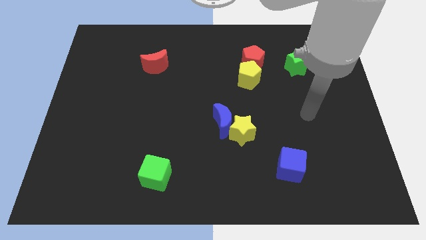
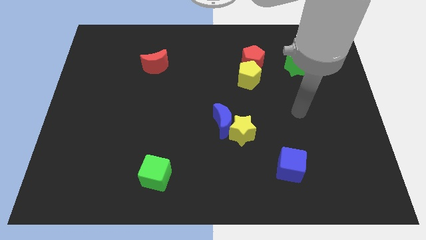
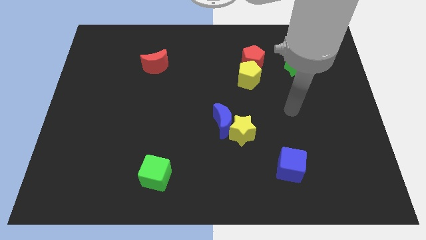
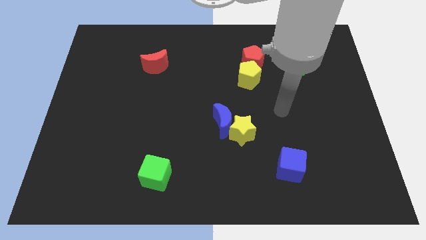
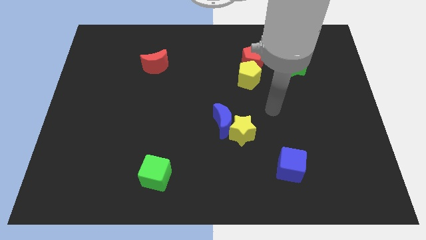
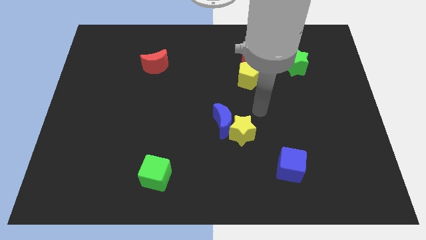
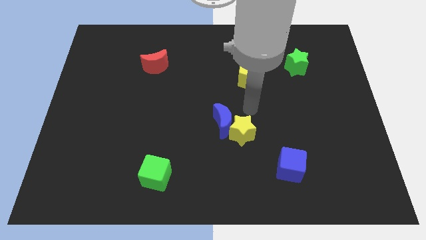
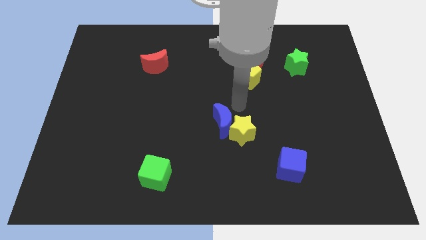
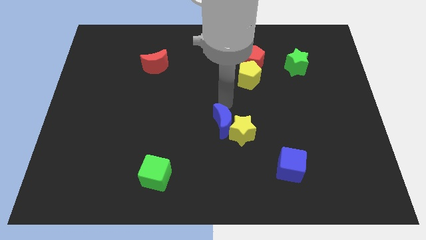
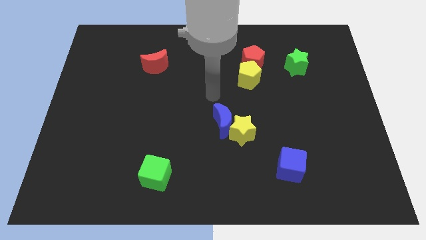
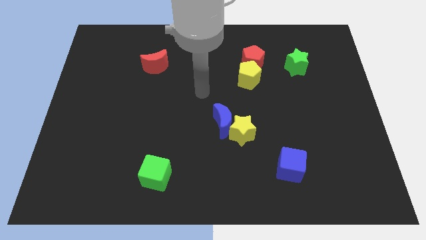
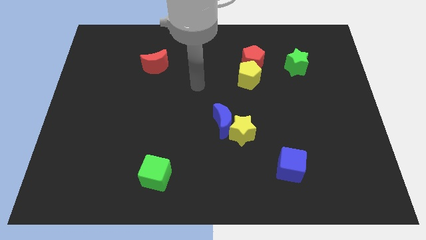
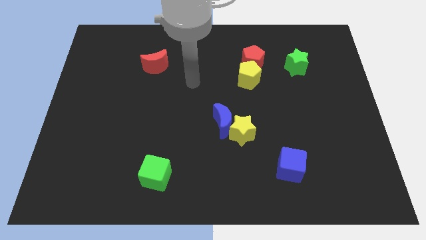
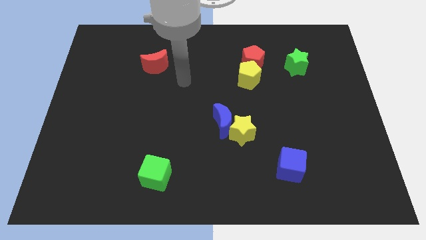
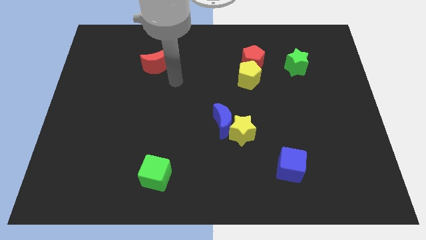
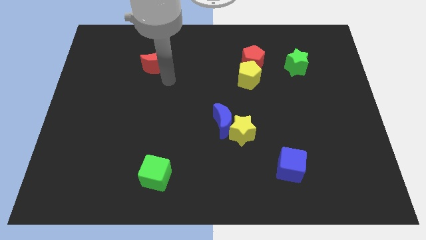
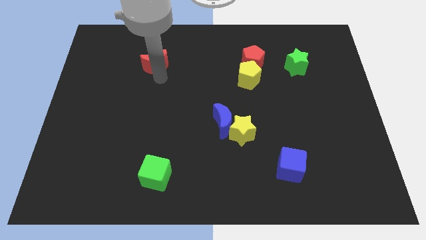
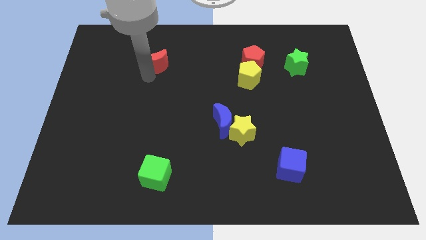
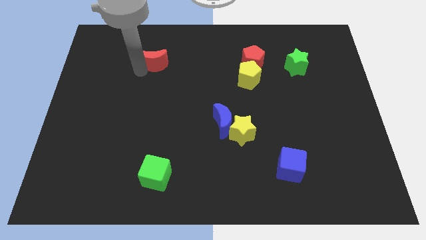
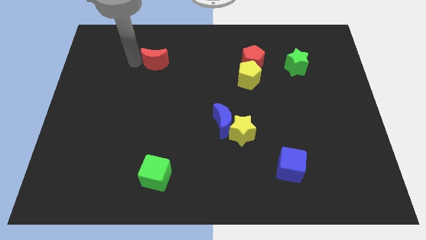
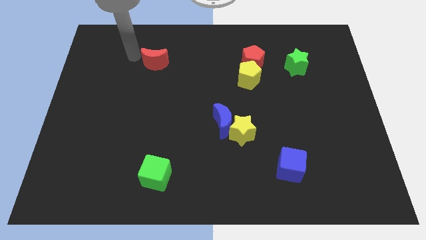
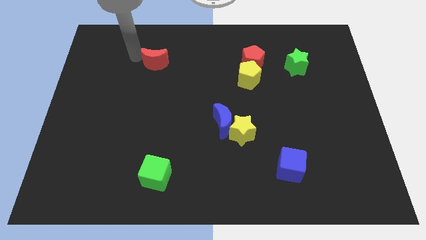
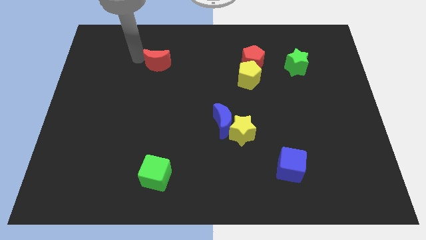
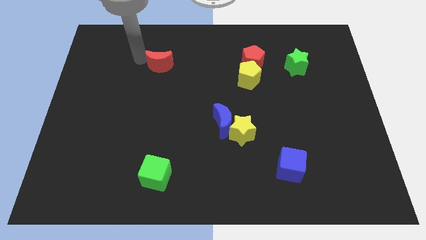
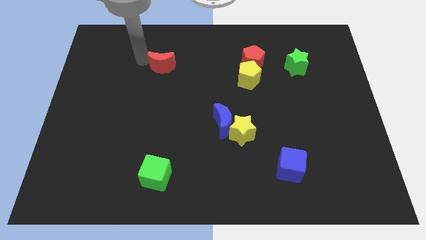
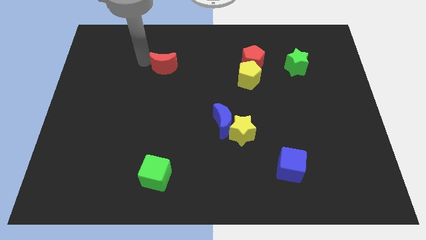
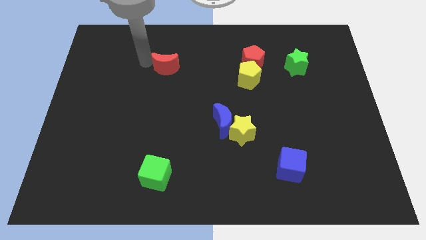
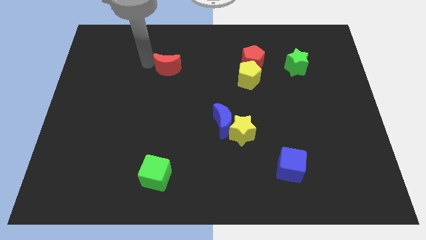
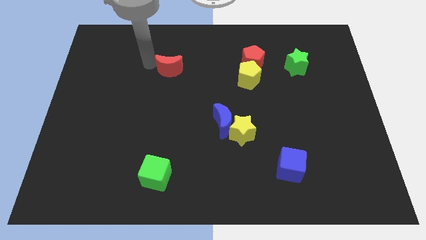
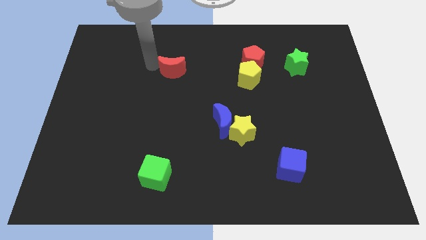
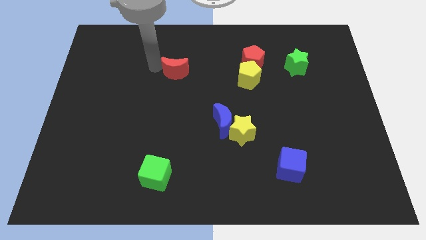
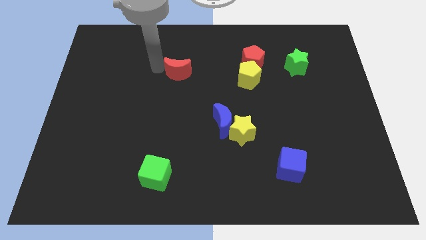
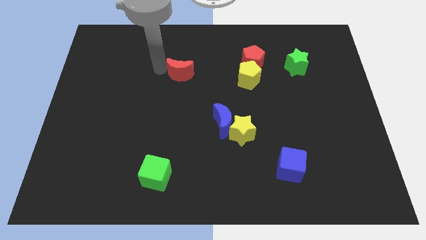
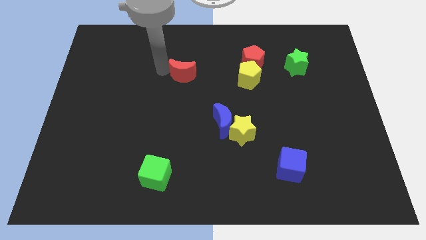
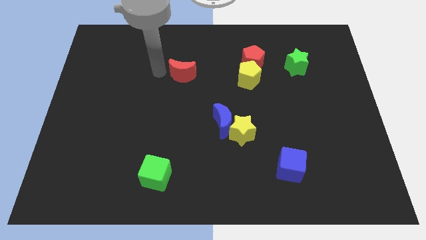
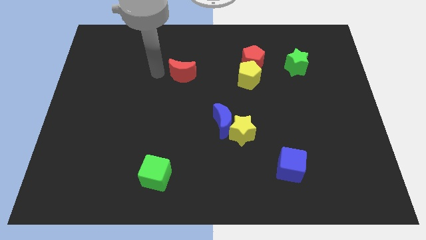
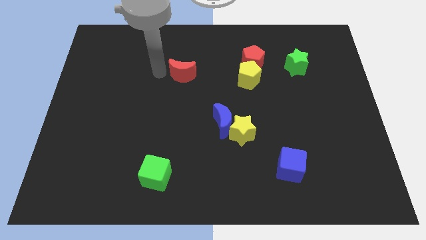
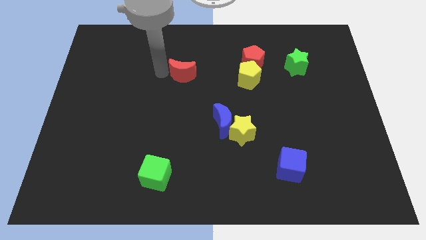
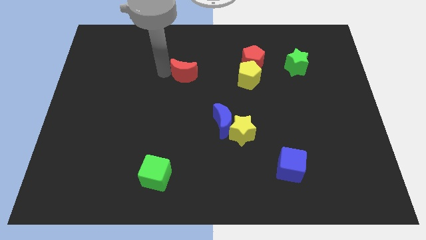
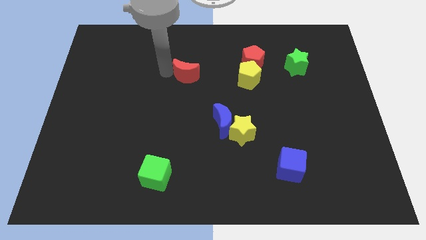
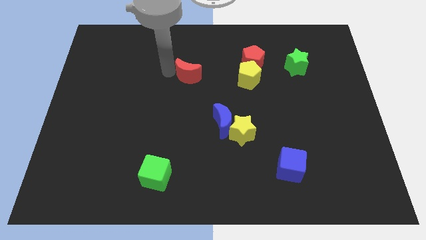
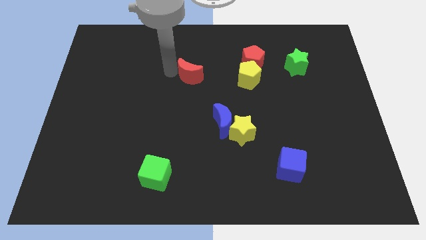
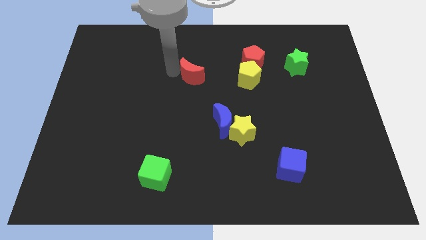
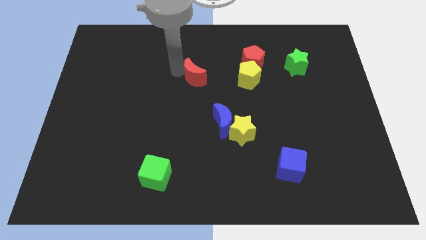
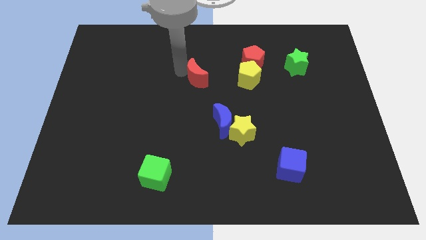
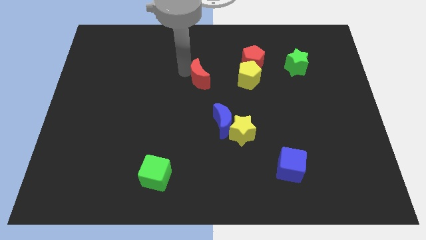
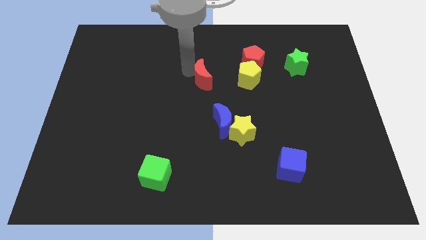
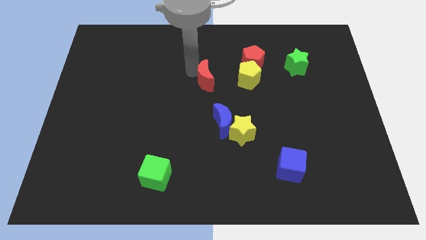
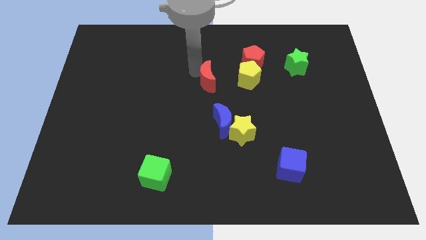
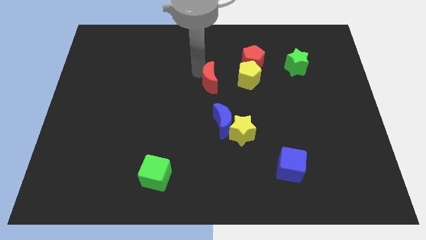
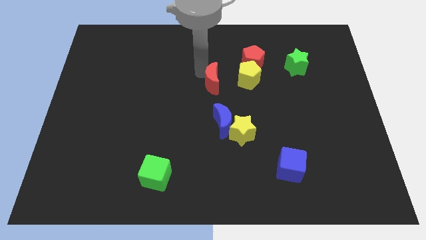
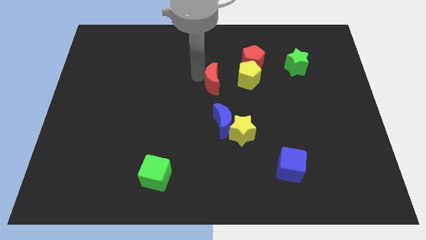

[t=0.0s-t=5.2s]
put the red moon diagonally down and to the left of the red pentagon

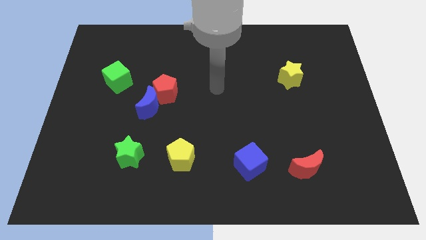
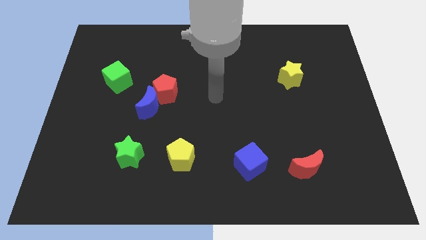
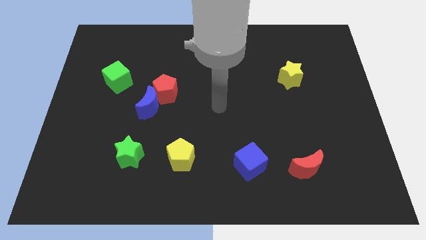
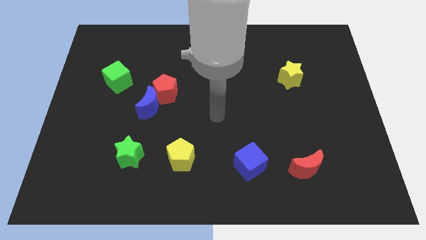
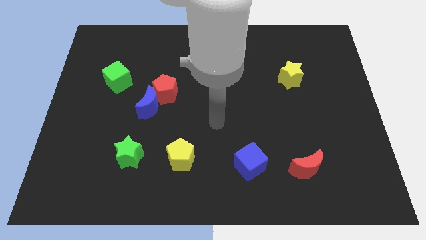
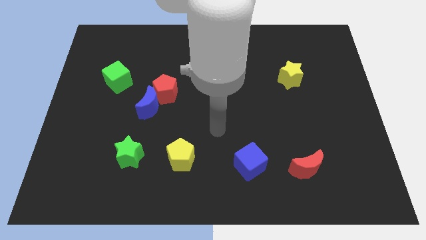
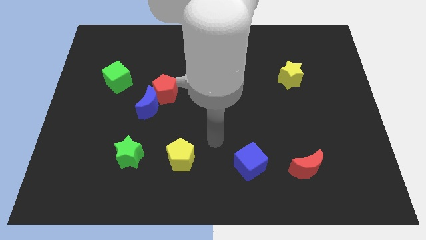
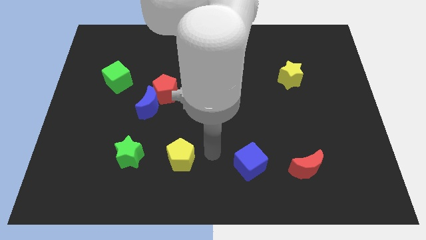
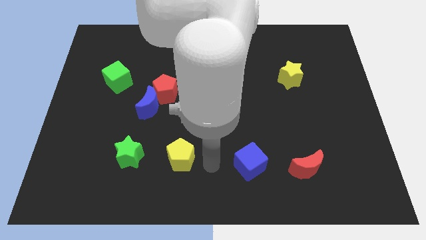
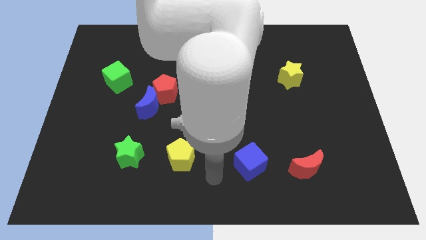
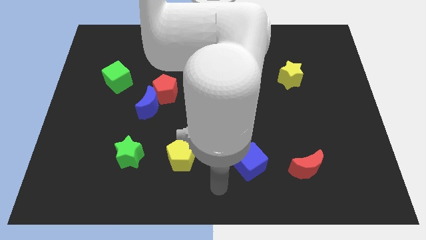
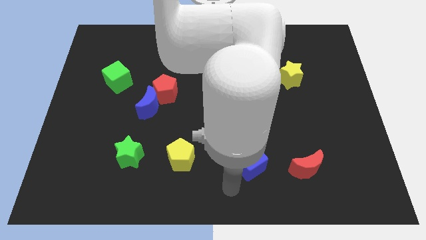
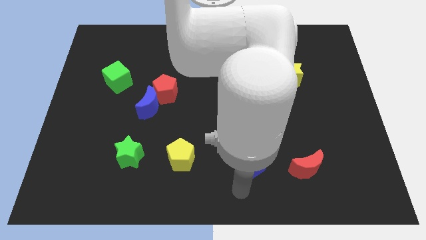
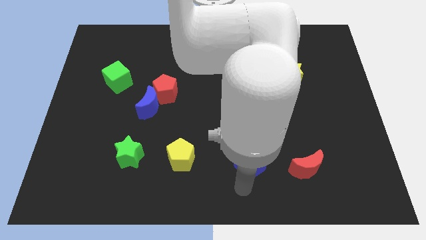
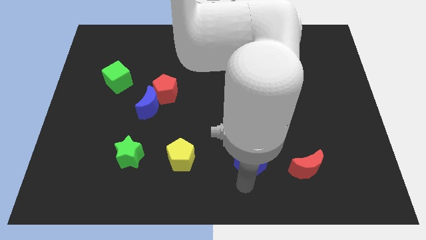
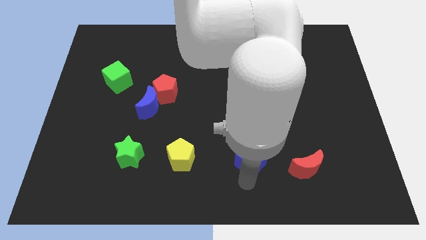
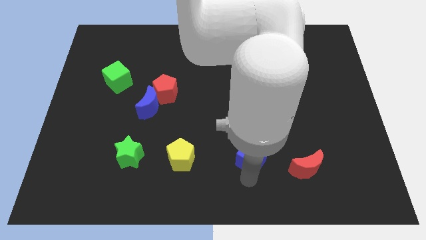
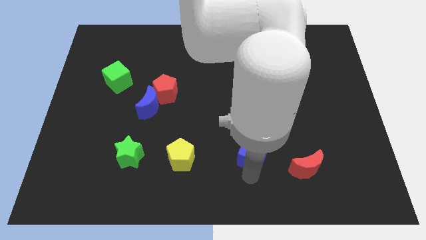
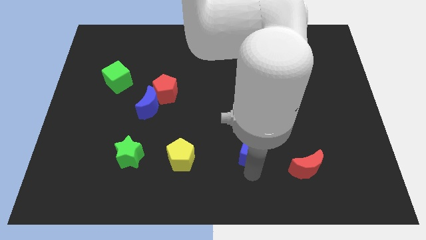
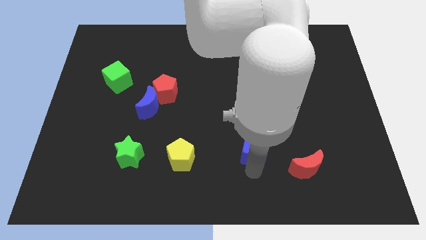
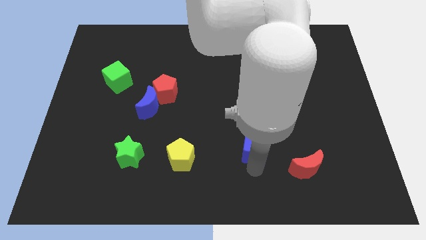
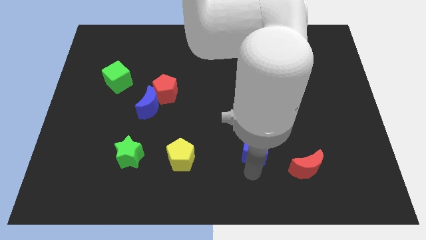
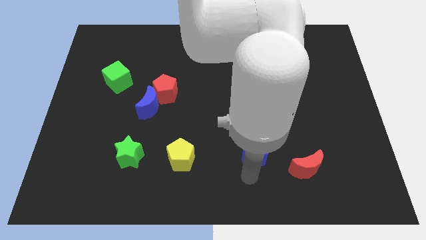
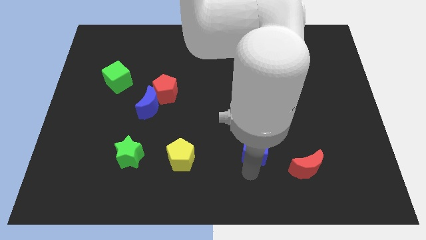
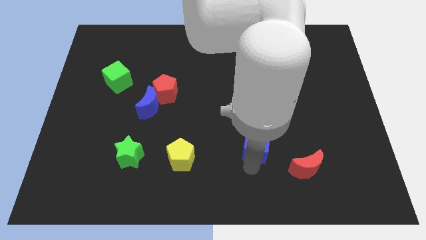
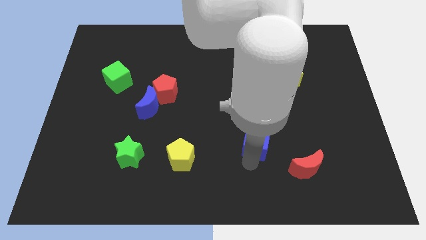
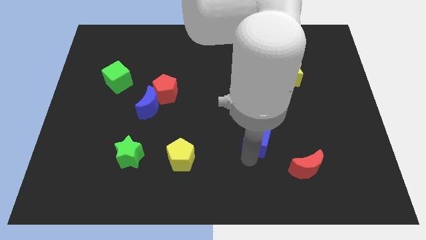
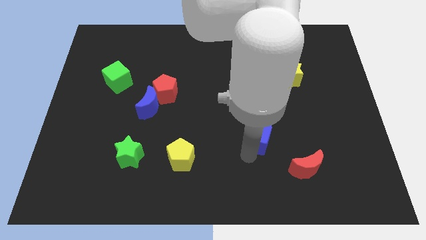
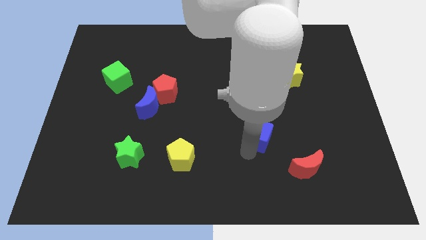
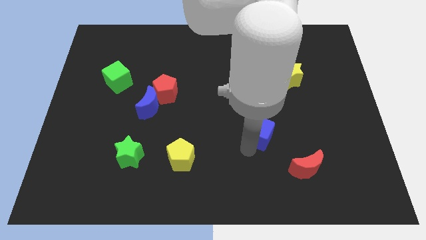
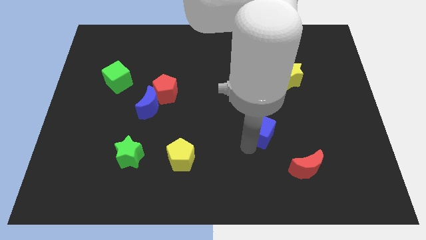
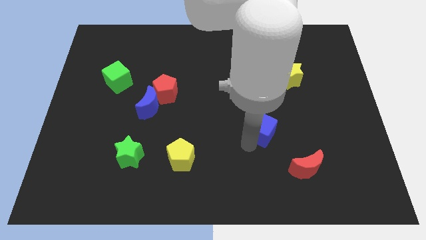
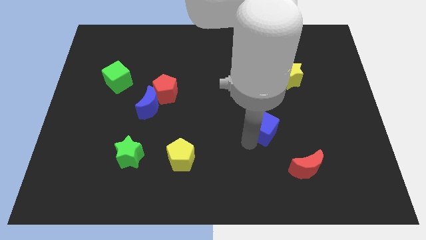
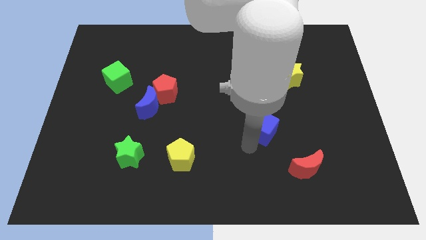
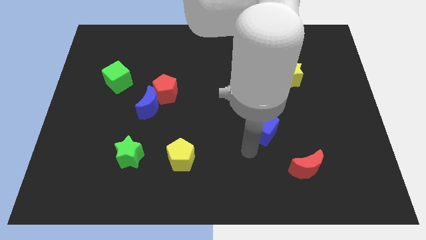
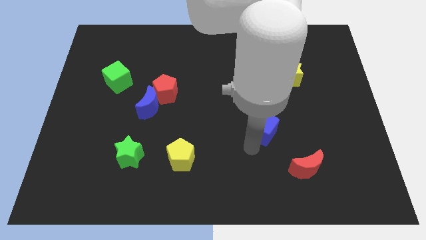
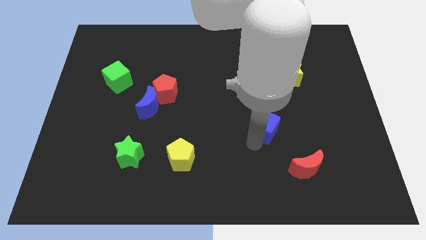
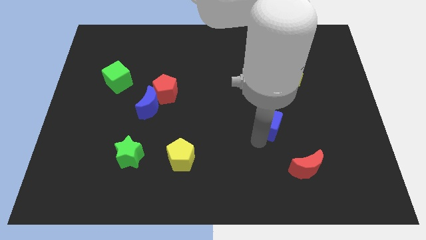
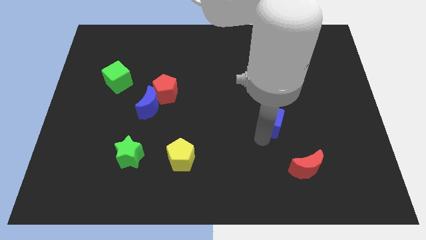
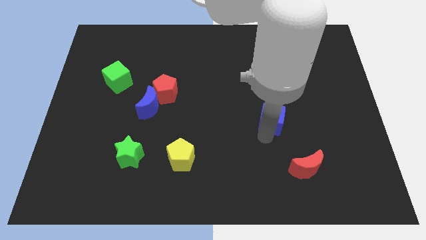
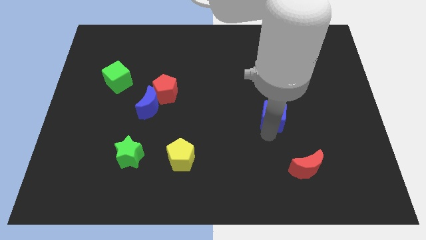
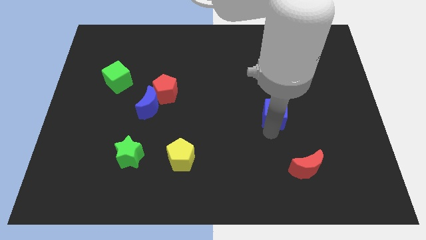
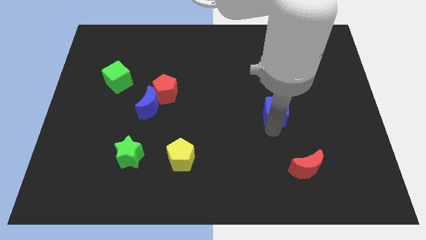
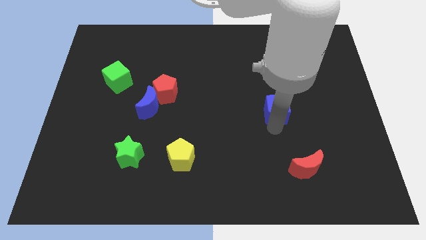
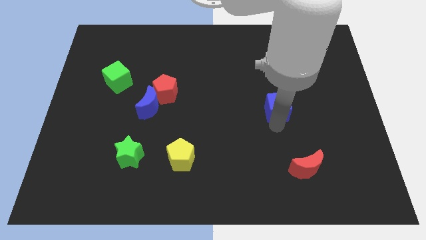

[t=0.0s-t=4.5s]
slide the blue cube to the bottom left side of the yellow star
